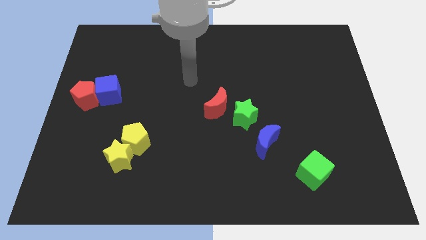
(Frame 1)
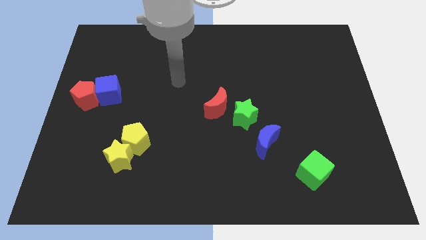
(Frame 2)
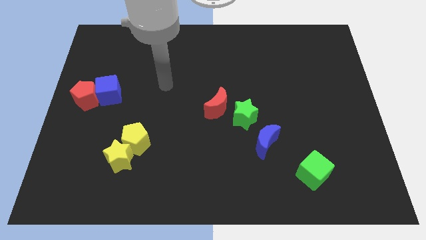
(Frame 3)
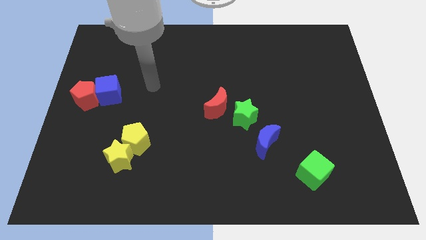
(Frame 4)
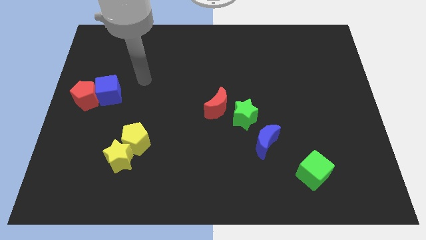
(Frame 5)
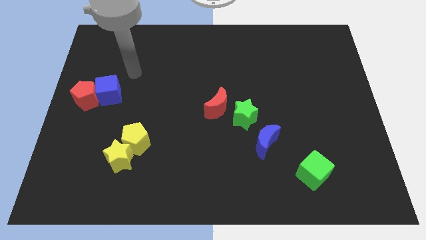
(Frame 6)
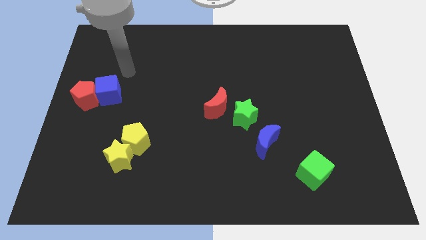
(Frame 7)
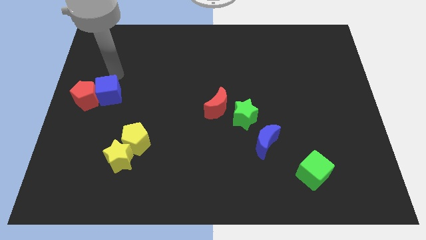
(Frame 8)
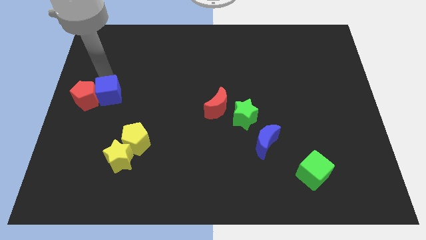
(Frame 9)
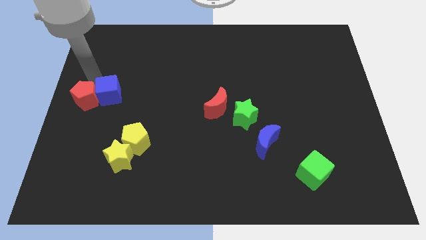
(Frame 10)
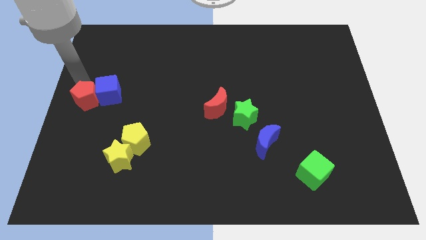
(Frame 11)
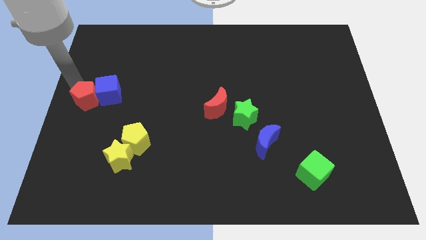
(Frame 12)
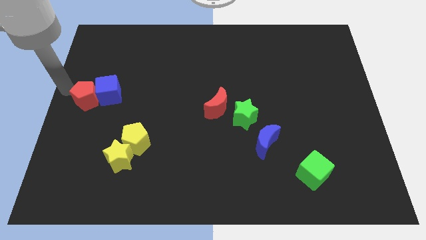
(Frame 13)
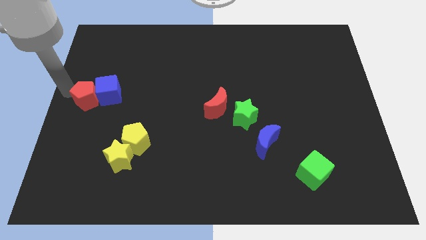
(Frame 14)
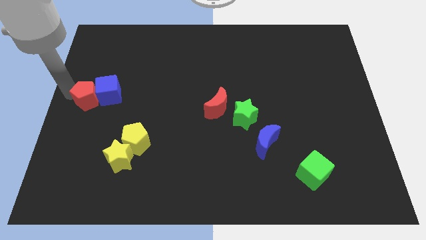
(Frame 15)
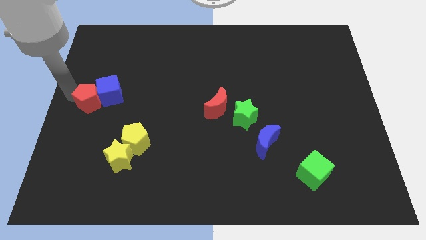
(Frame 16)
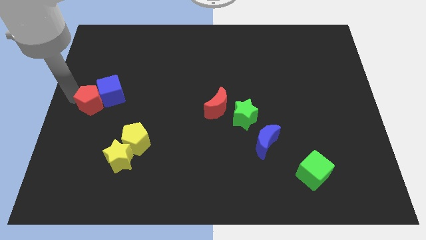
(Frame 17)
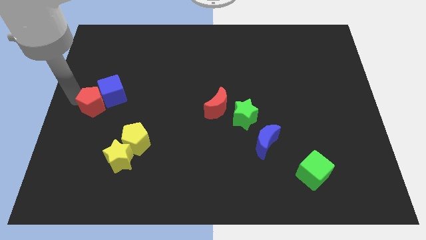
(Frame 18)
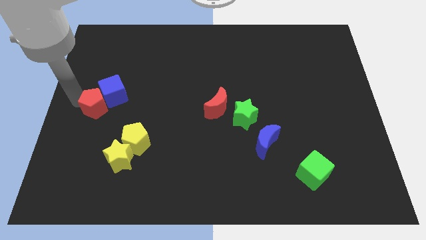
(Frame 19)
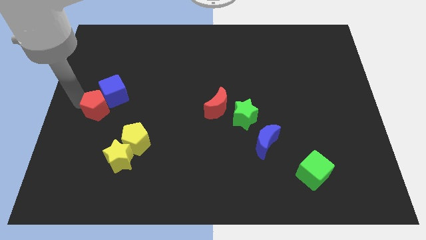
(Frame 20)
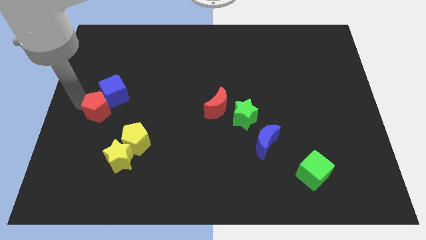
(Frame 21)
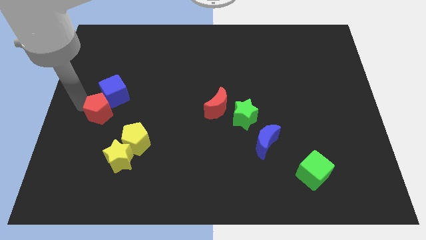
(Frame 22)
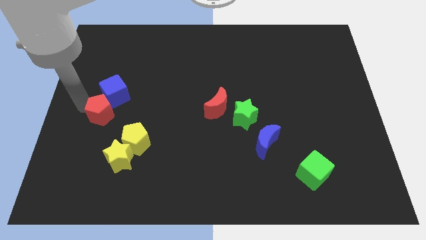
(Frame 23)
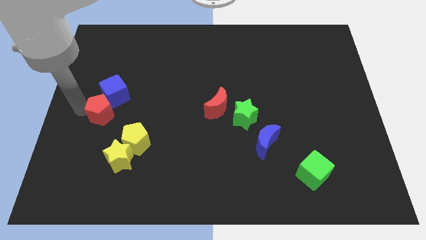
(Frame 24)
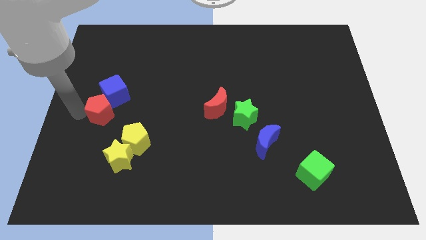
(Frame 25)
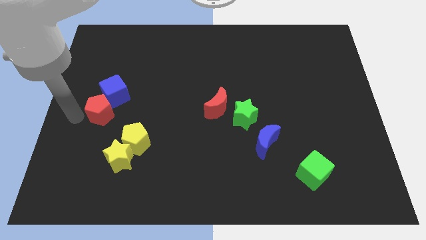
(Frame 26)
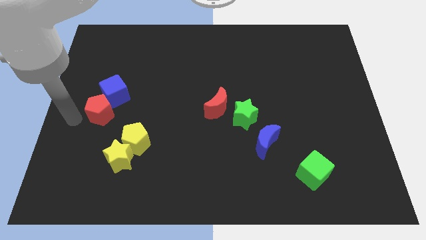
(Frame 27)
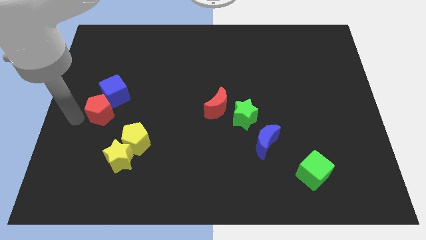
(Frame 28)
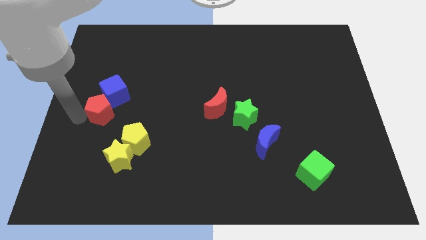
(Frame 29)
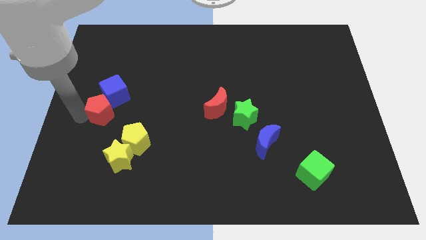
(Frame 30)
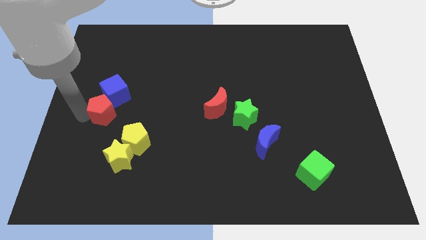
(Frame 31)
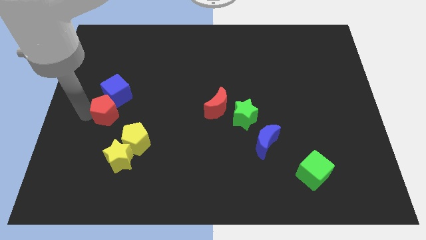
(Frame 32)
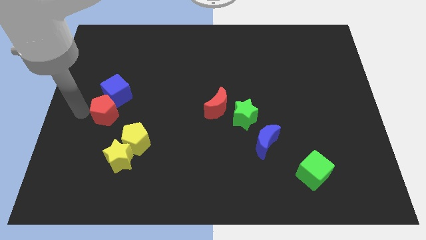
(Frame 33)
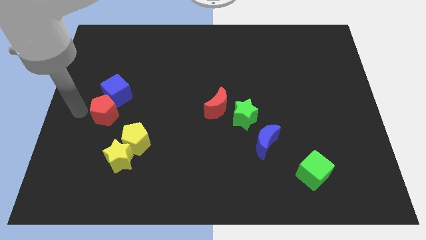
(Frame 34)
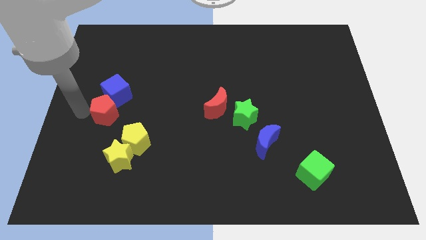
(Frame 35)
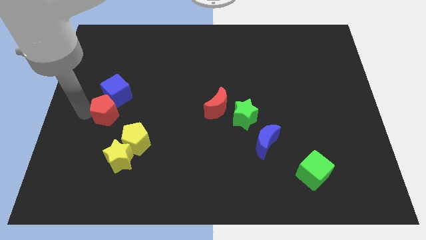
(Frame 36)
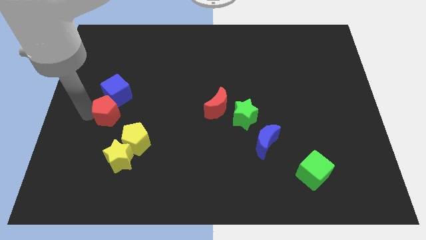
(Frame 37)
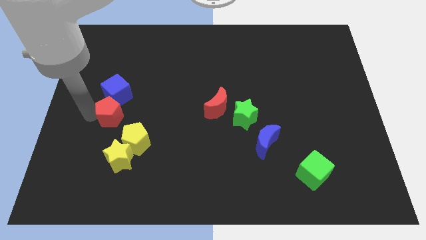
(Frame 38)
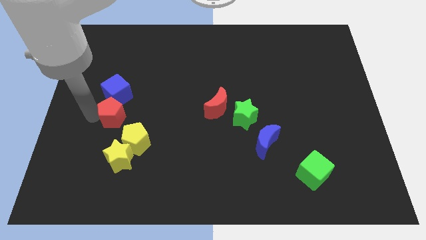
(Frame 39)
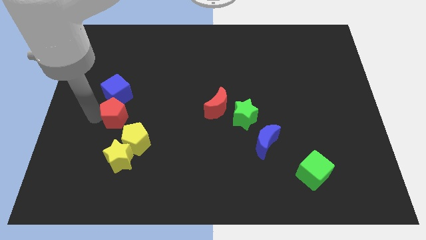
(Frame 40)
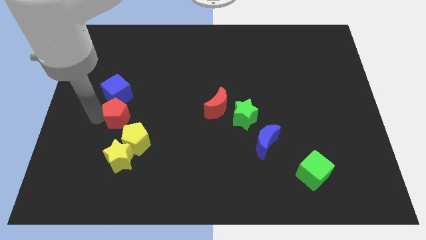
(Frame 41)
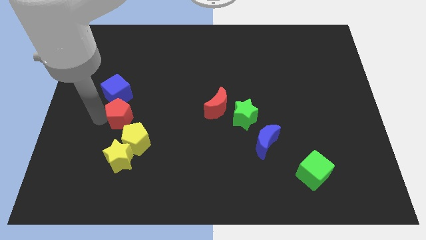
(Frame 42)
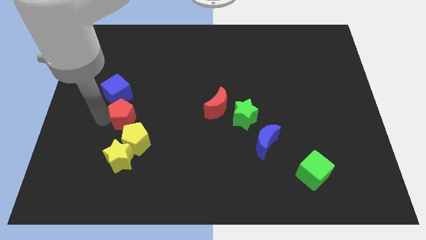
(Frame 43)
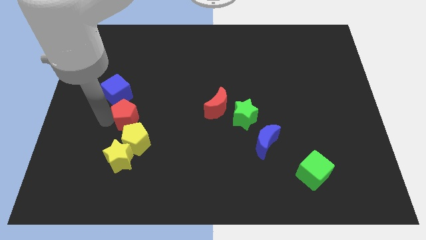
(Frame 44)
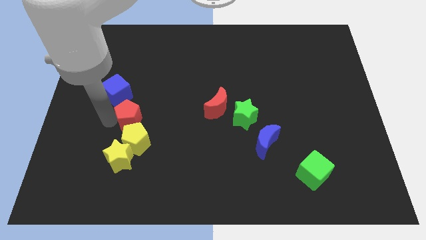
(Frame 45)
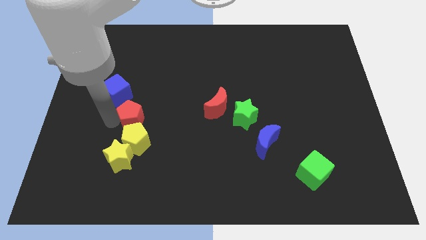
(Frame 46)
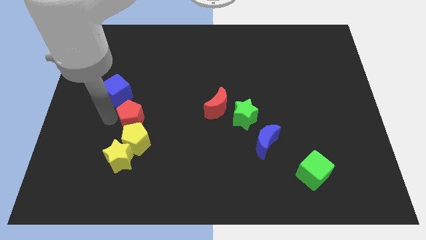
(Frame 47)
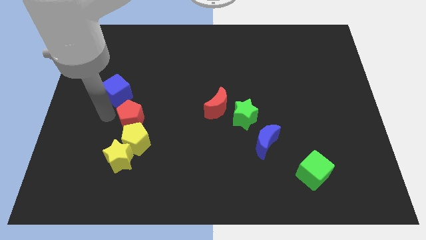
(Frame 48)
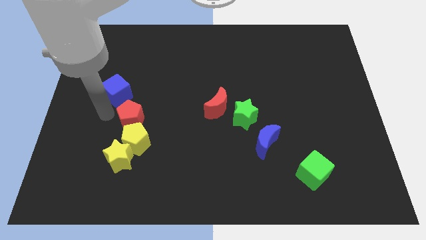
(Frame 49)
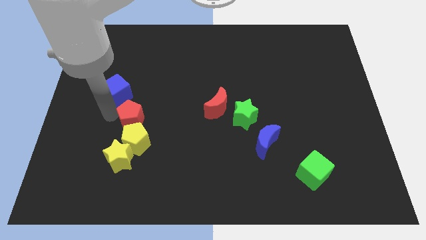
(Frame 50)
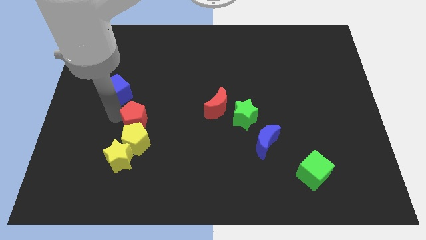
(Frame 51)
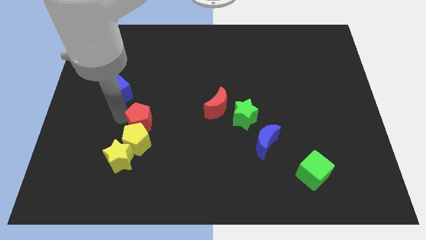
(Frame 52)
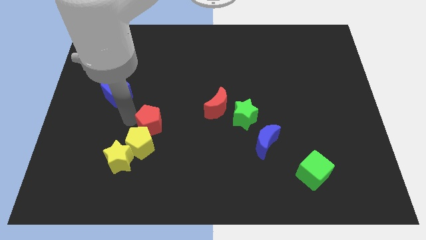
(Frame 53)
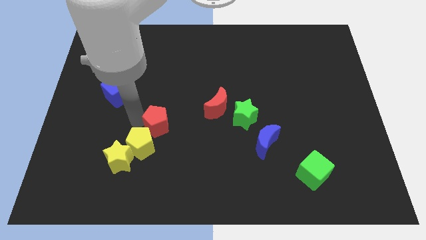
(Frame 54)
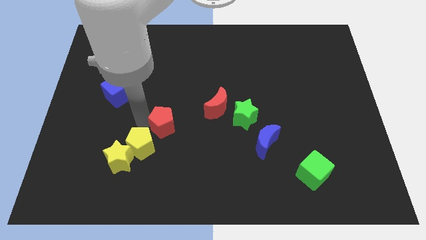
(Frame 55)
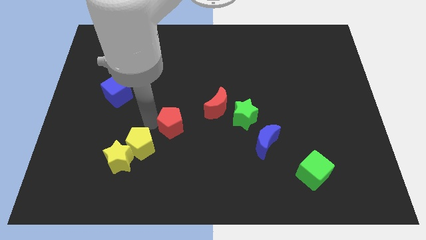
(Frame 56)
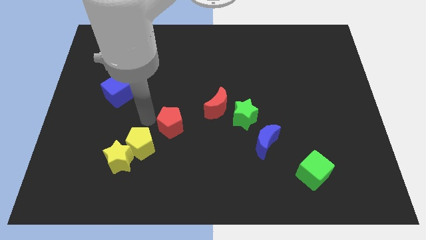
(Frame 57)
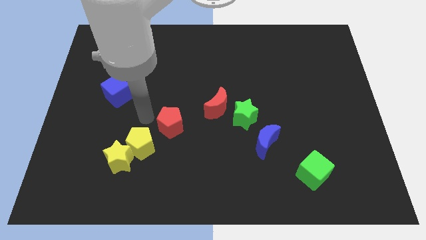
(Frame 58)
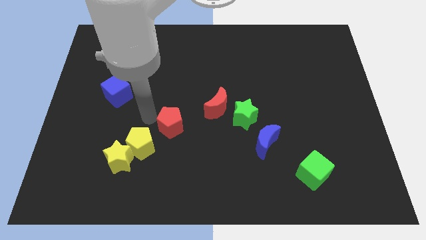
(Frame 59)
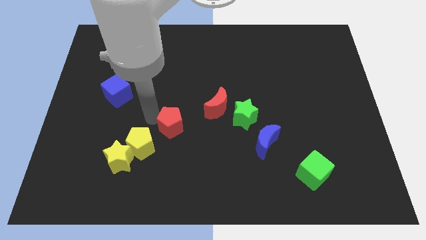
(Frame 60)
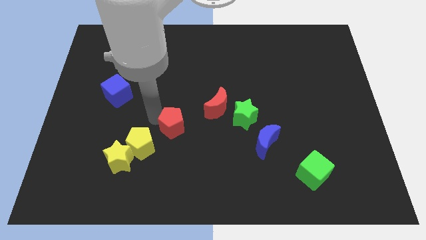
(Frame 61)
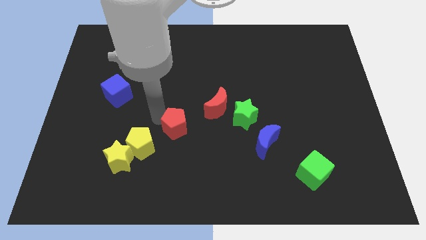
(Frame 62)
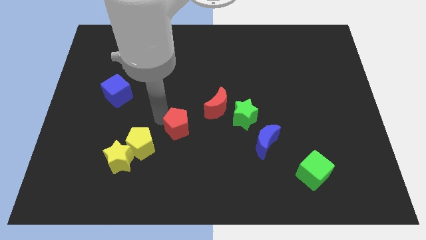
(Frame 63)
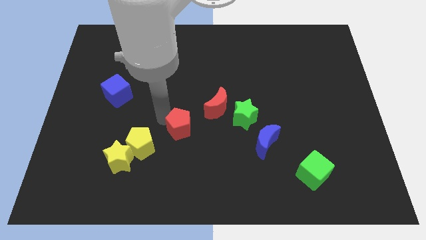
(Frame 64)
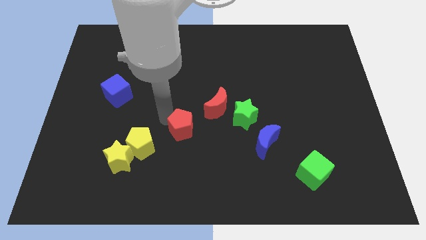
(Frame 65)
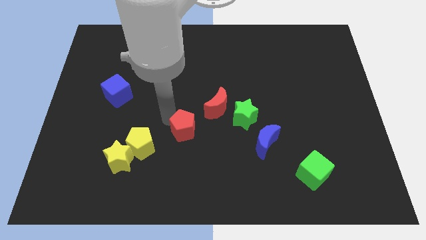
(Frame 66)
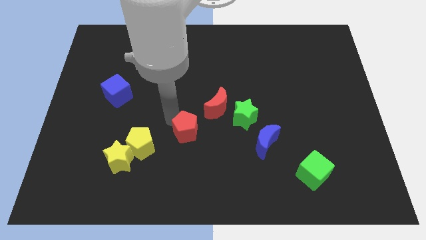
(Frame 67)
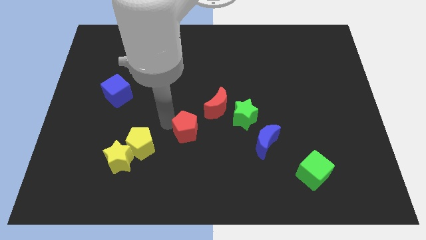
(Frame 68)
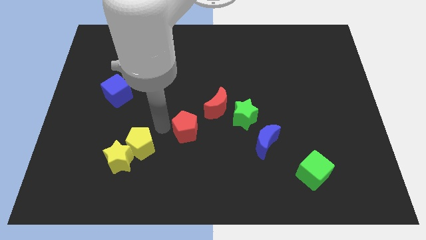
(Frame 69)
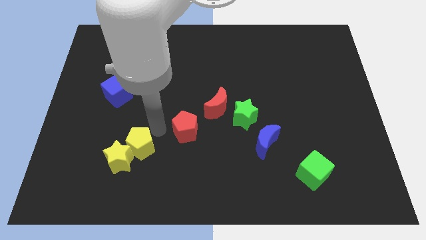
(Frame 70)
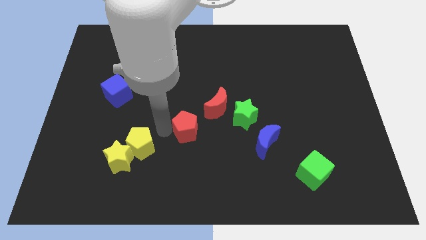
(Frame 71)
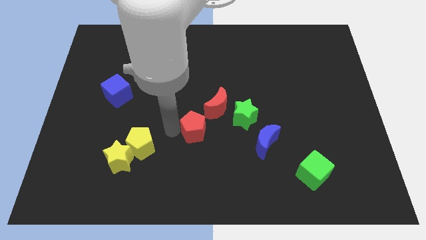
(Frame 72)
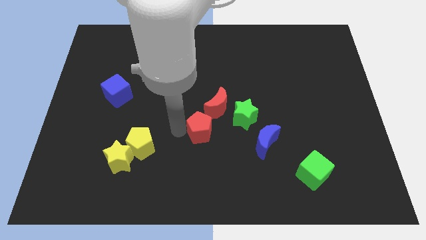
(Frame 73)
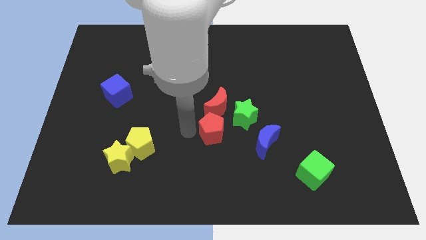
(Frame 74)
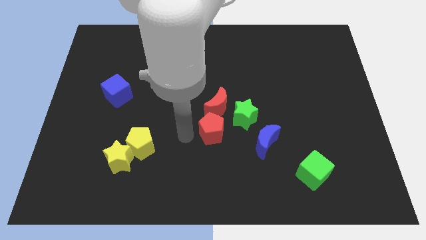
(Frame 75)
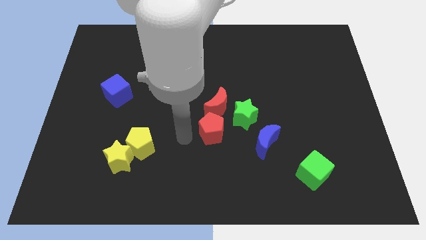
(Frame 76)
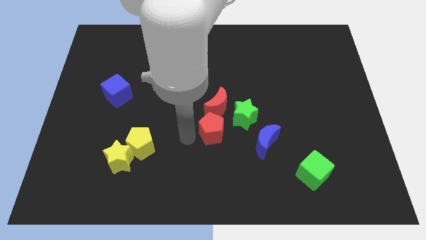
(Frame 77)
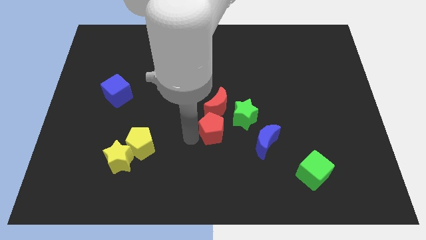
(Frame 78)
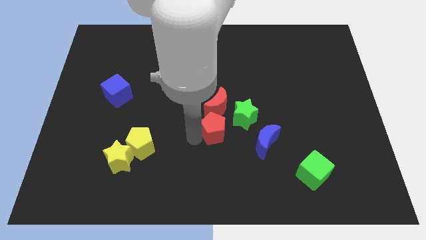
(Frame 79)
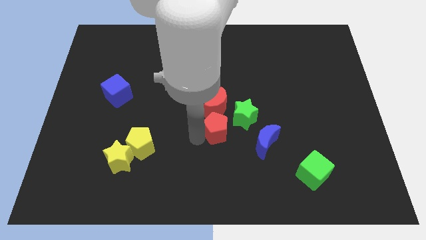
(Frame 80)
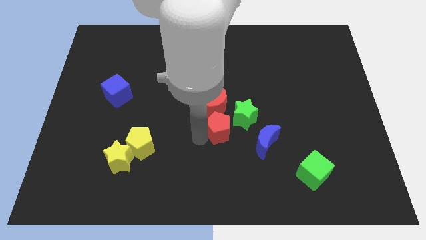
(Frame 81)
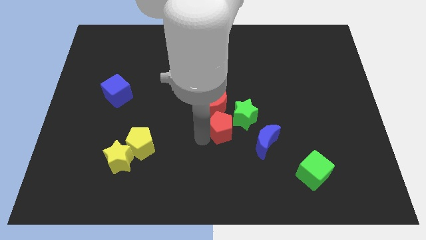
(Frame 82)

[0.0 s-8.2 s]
slide the red pentagon close to the green star
